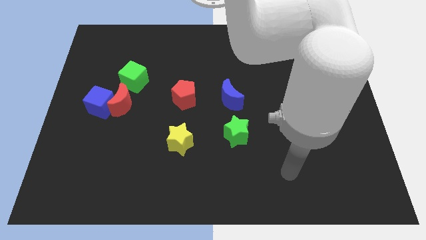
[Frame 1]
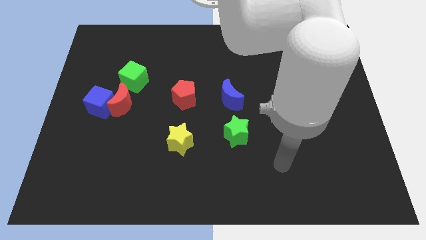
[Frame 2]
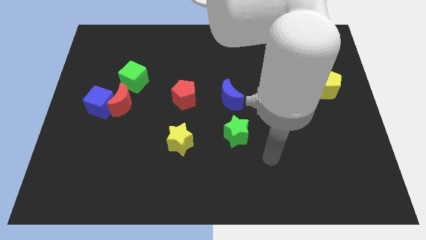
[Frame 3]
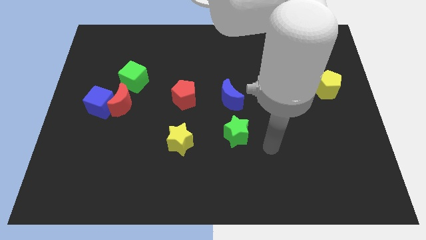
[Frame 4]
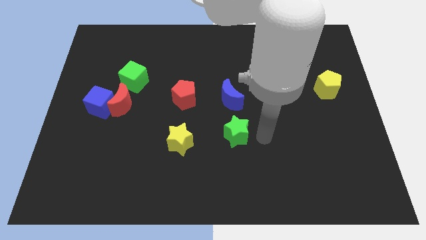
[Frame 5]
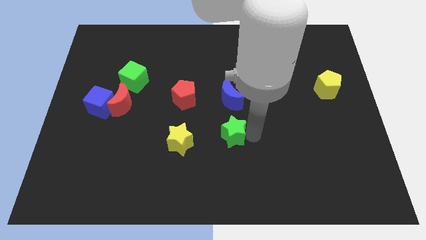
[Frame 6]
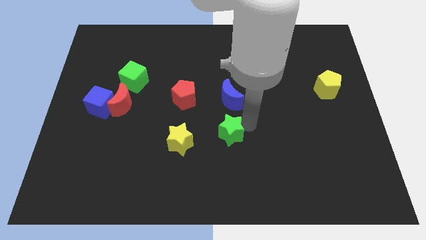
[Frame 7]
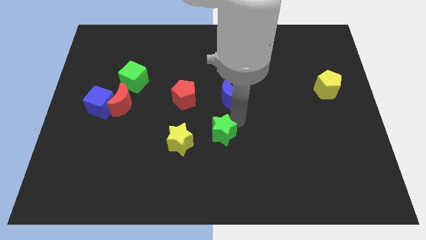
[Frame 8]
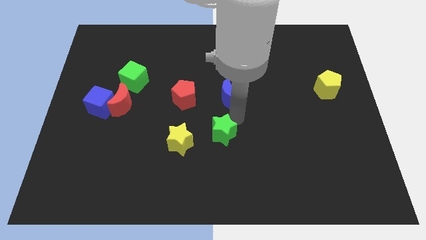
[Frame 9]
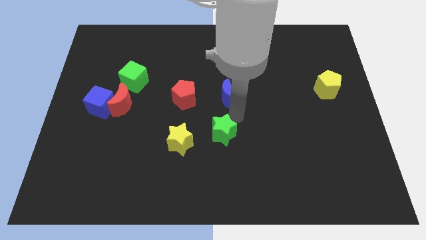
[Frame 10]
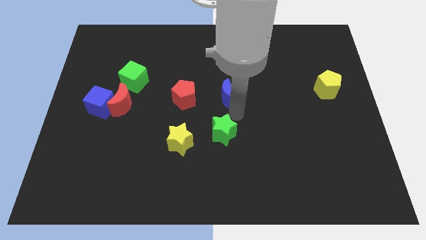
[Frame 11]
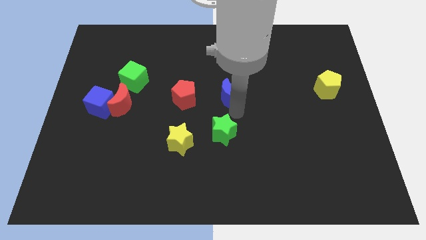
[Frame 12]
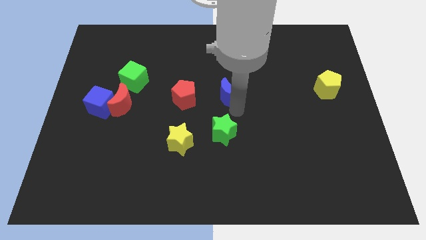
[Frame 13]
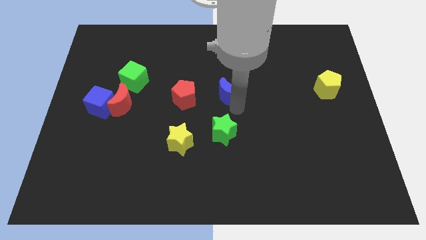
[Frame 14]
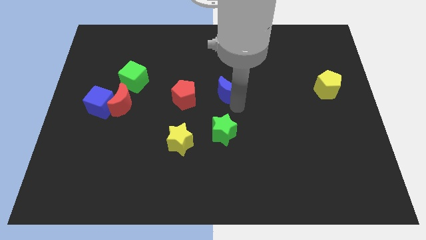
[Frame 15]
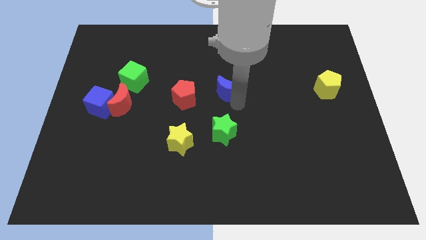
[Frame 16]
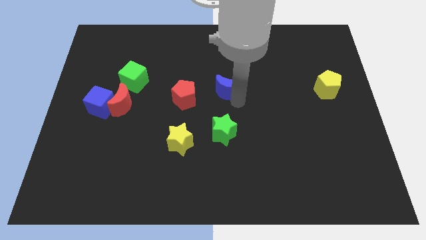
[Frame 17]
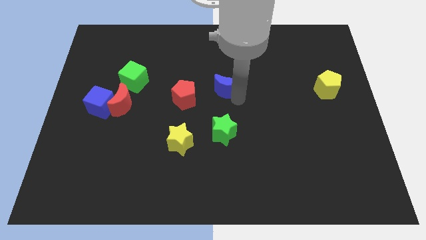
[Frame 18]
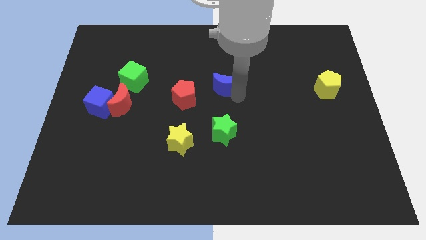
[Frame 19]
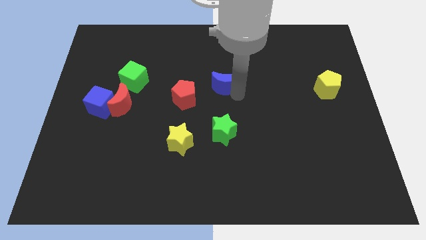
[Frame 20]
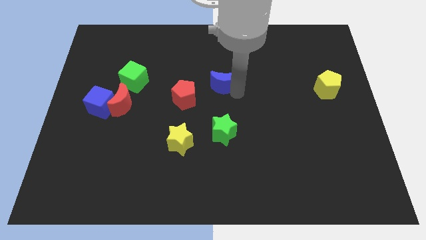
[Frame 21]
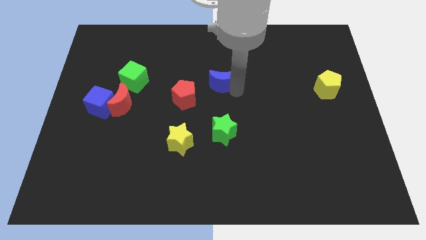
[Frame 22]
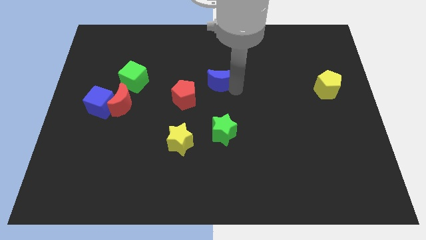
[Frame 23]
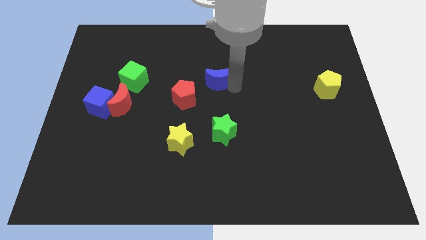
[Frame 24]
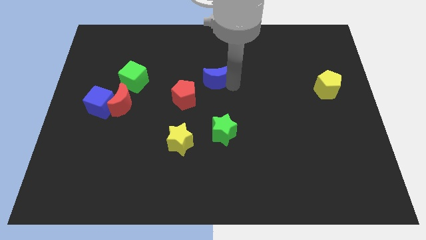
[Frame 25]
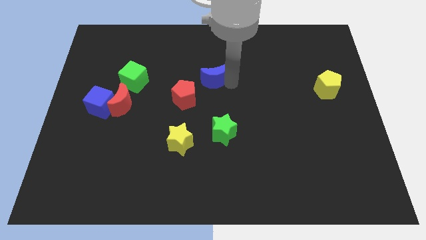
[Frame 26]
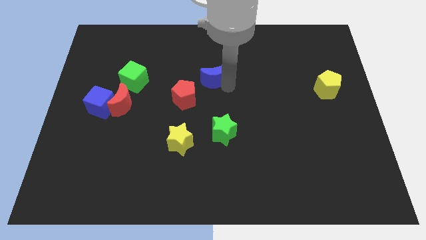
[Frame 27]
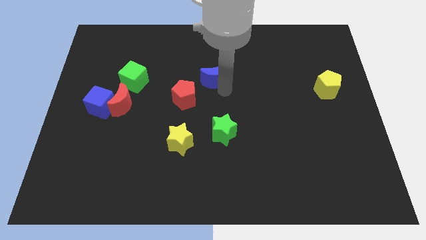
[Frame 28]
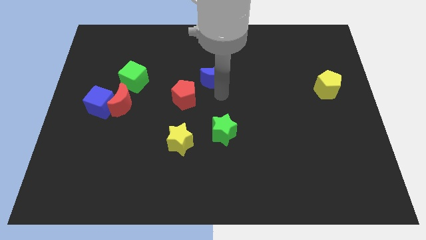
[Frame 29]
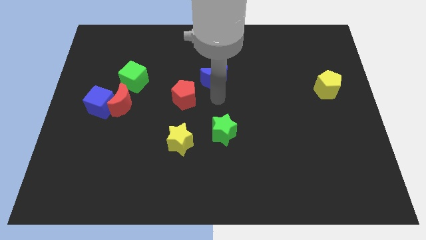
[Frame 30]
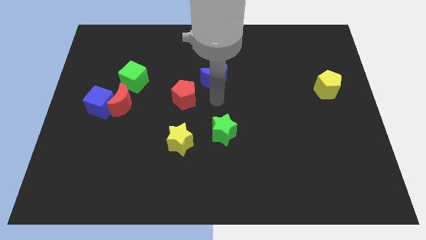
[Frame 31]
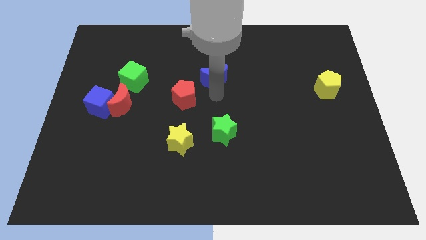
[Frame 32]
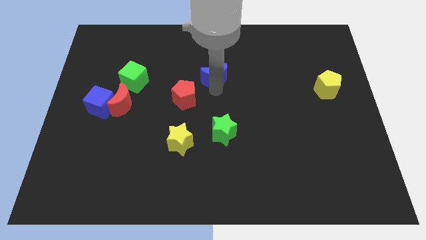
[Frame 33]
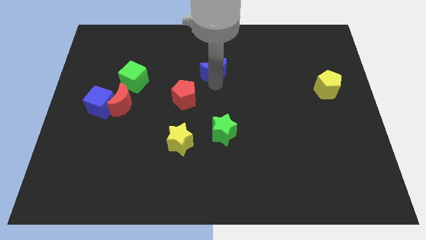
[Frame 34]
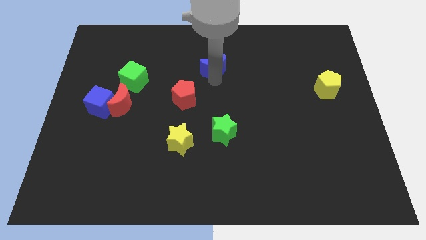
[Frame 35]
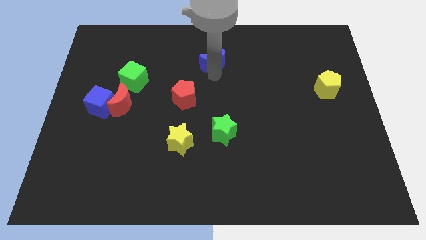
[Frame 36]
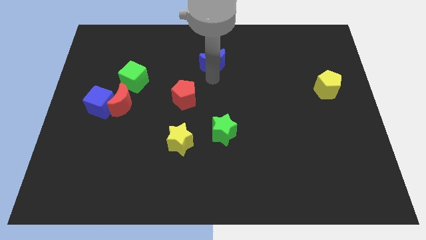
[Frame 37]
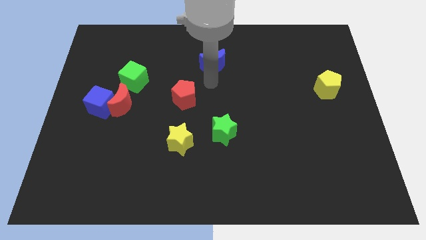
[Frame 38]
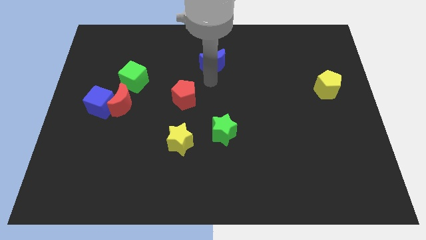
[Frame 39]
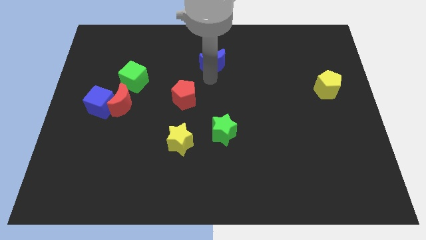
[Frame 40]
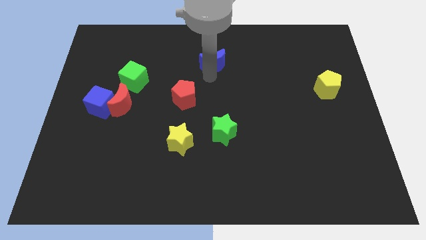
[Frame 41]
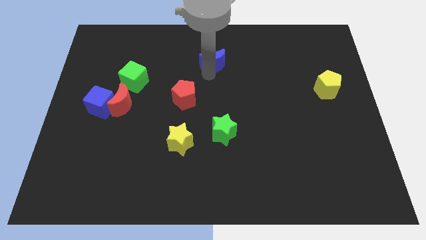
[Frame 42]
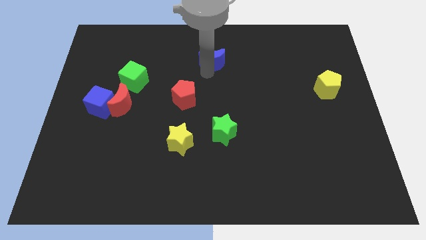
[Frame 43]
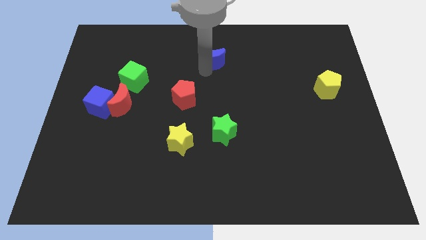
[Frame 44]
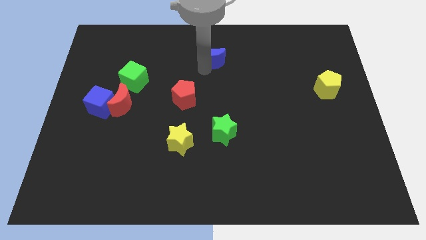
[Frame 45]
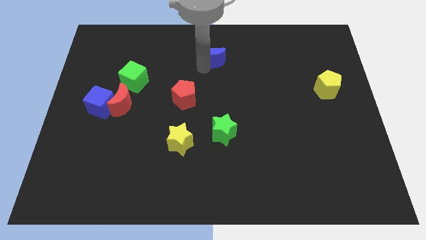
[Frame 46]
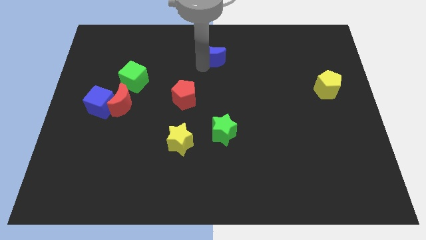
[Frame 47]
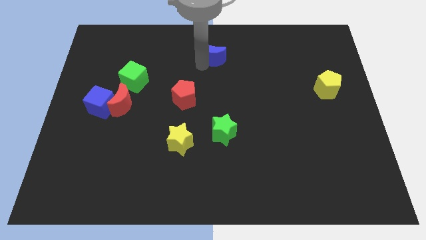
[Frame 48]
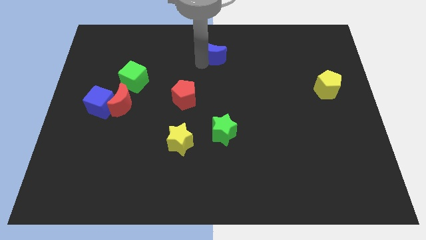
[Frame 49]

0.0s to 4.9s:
push the blue moon to the top side
